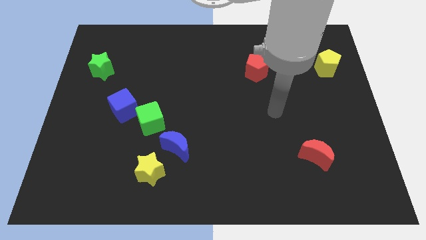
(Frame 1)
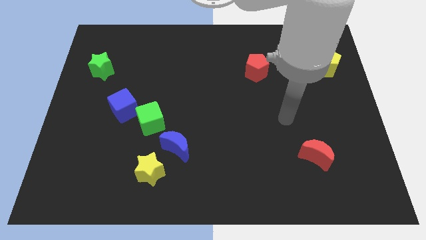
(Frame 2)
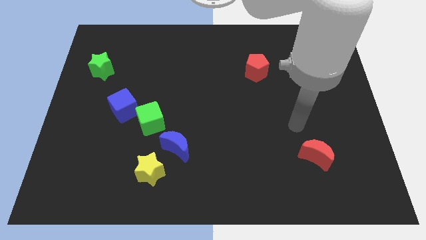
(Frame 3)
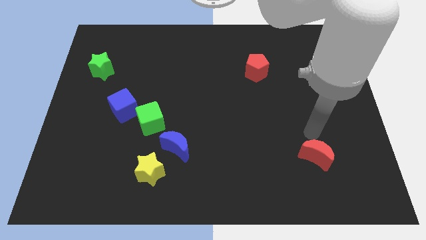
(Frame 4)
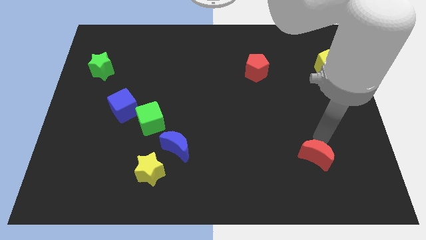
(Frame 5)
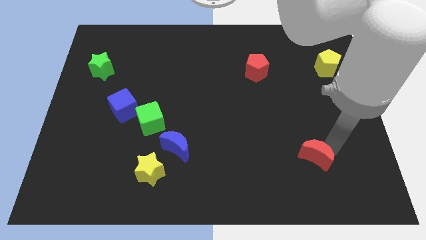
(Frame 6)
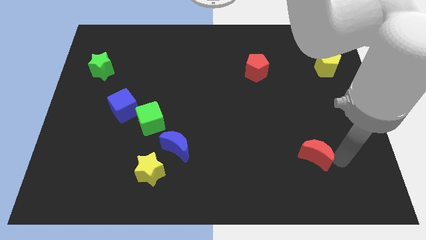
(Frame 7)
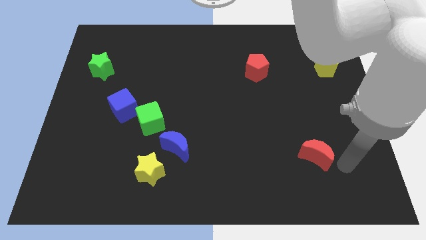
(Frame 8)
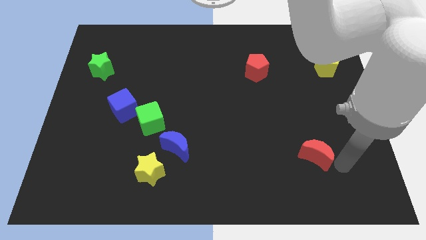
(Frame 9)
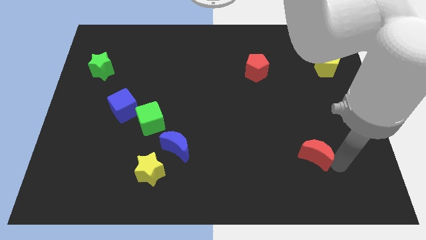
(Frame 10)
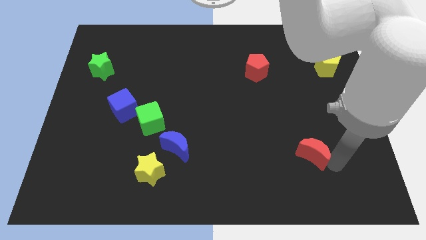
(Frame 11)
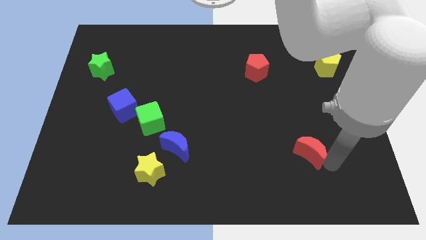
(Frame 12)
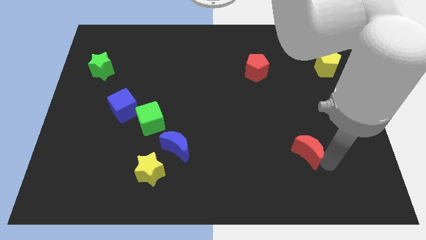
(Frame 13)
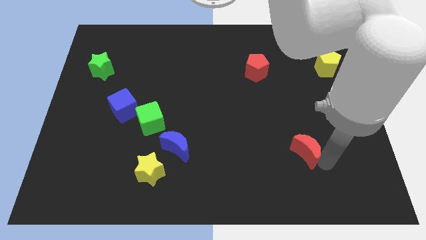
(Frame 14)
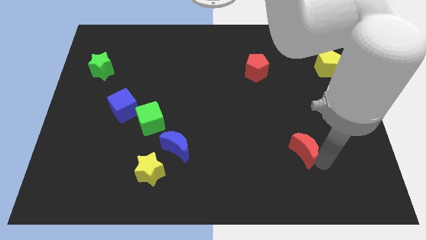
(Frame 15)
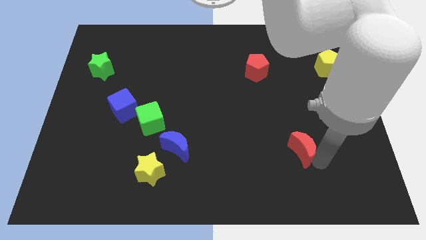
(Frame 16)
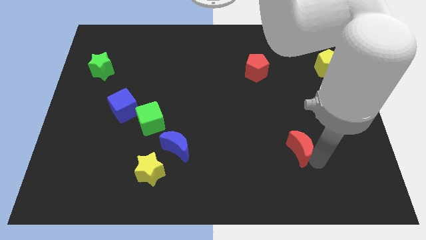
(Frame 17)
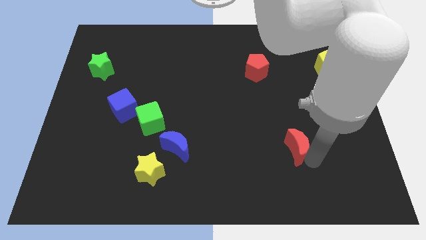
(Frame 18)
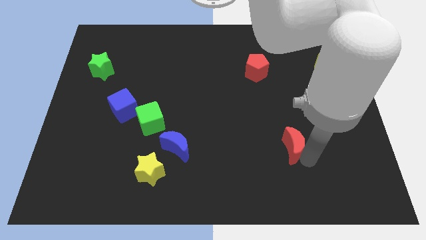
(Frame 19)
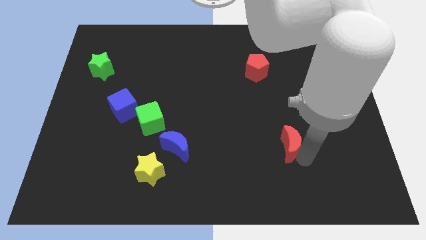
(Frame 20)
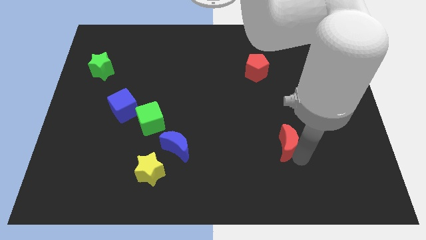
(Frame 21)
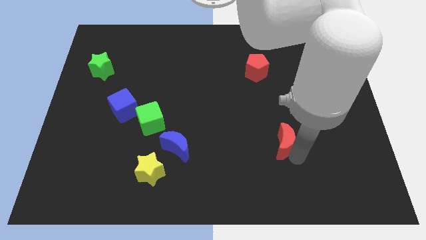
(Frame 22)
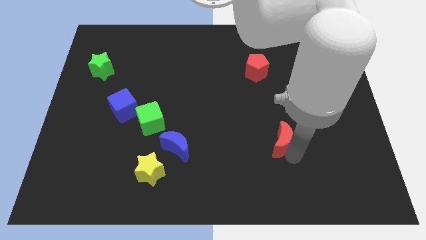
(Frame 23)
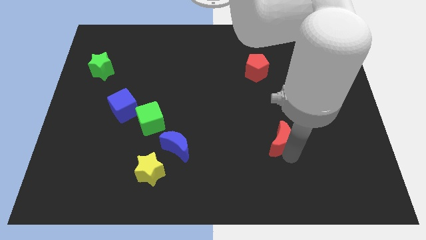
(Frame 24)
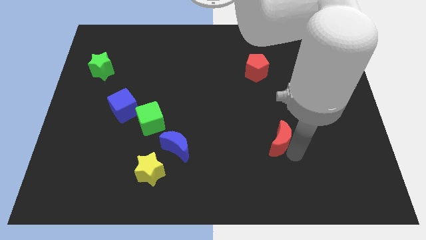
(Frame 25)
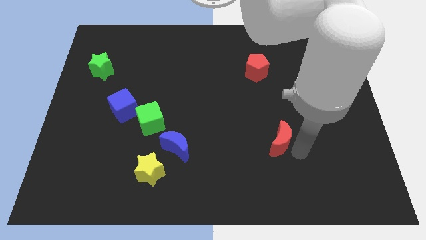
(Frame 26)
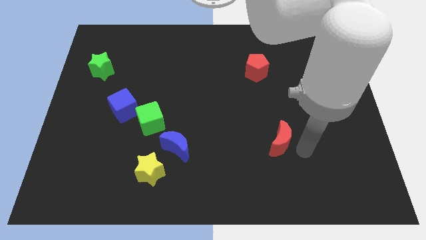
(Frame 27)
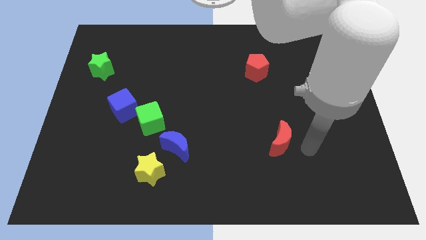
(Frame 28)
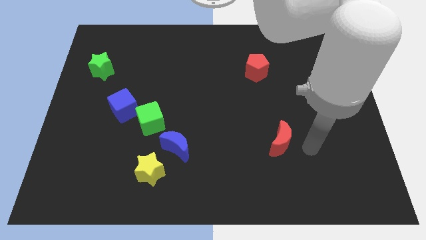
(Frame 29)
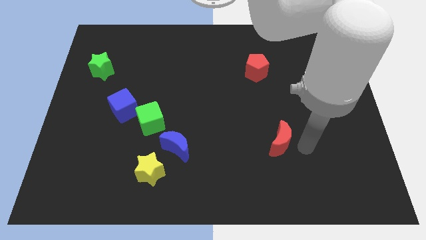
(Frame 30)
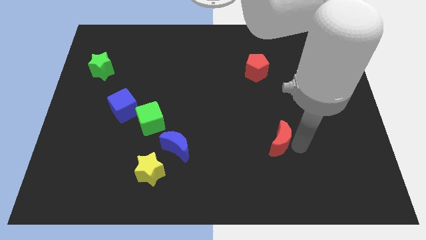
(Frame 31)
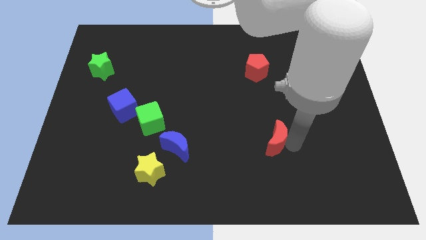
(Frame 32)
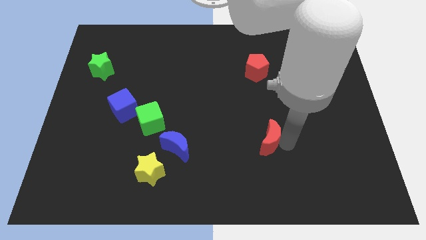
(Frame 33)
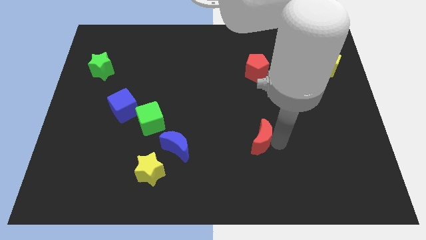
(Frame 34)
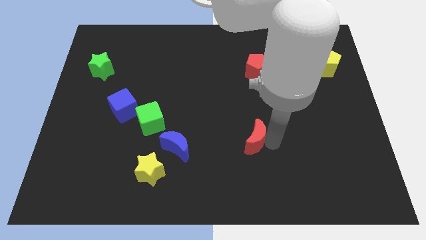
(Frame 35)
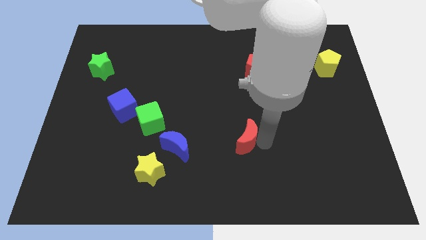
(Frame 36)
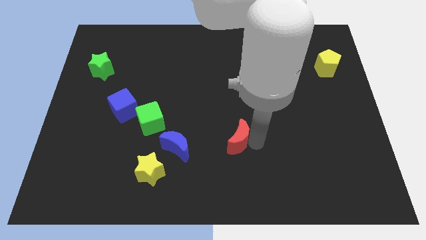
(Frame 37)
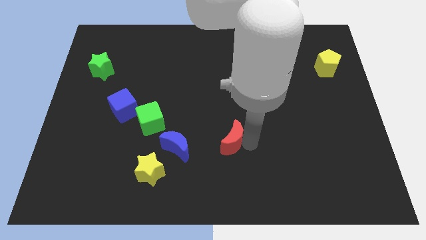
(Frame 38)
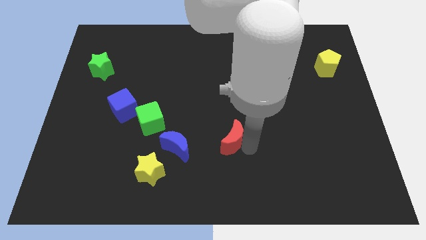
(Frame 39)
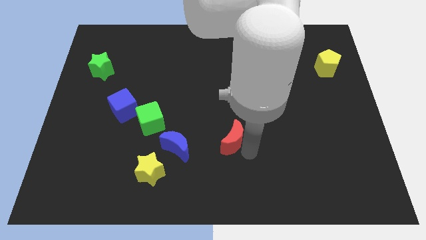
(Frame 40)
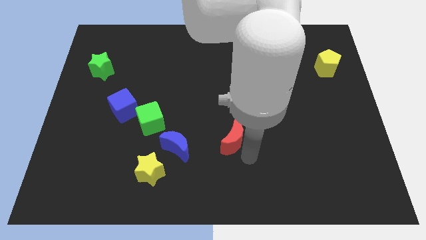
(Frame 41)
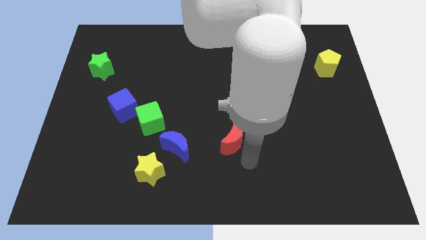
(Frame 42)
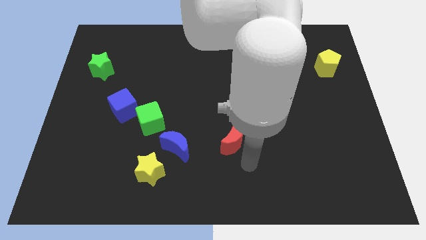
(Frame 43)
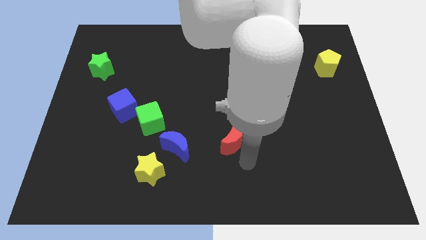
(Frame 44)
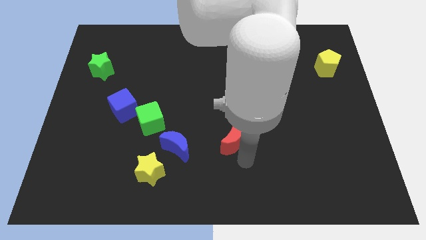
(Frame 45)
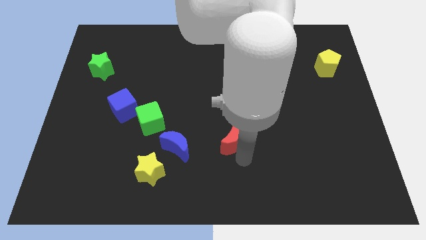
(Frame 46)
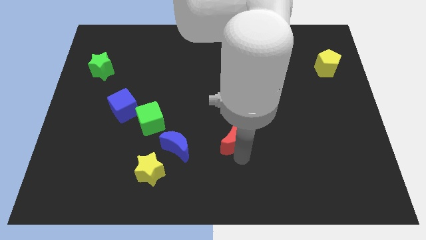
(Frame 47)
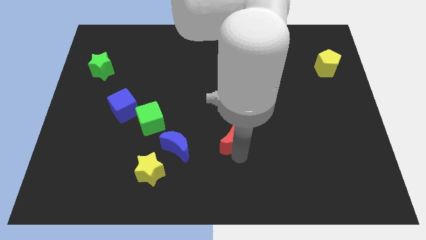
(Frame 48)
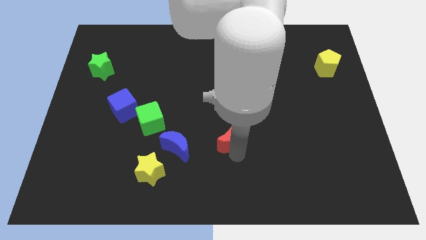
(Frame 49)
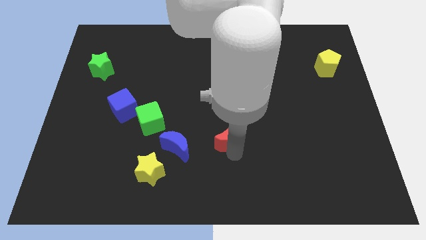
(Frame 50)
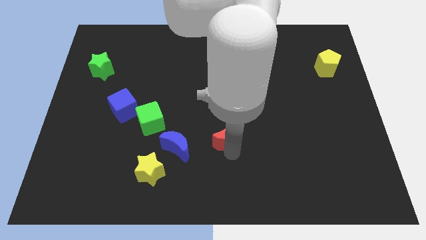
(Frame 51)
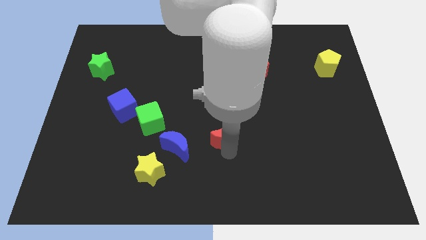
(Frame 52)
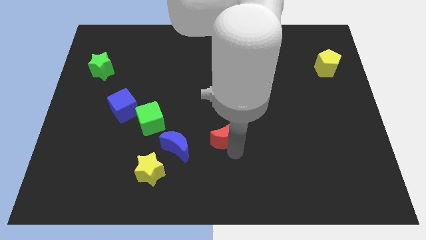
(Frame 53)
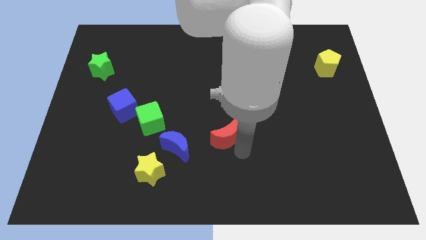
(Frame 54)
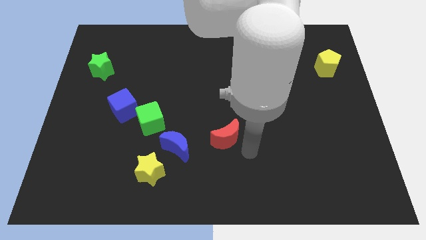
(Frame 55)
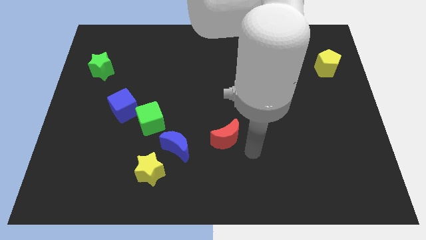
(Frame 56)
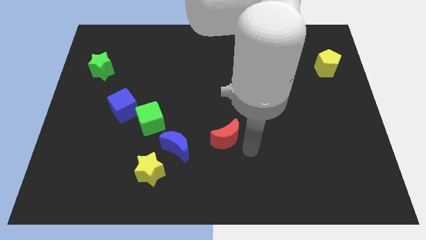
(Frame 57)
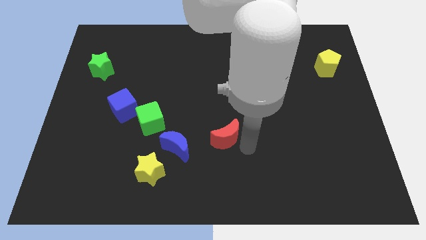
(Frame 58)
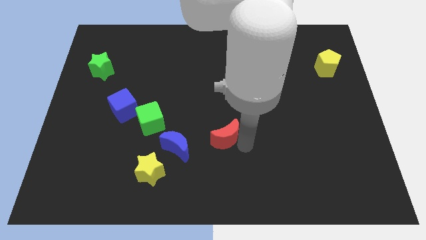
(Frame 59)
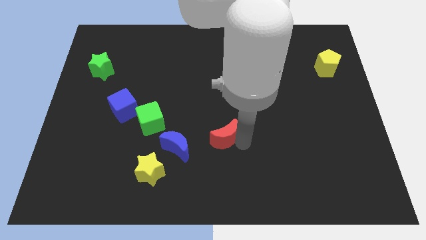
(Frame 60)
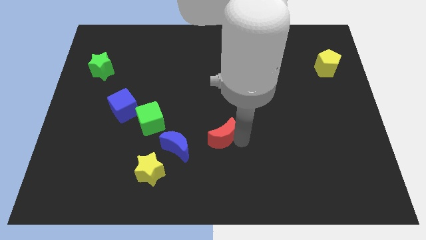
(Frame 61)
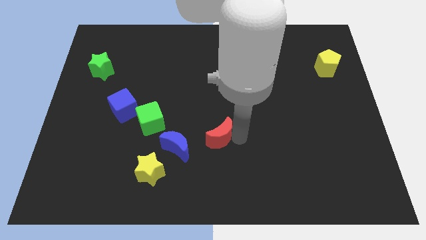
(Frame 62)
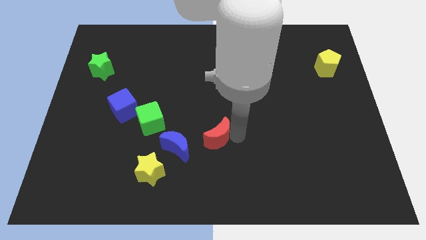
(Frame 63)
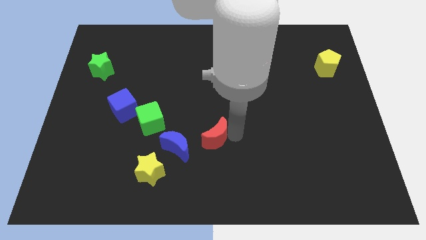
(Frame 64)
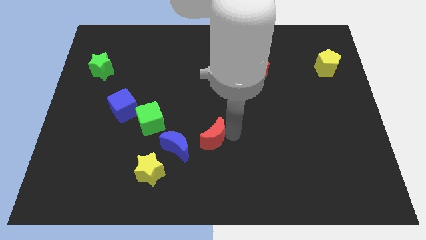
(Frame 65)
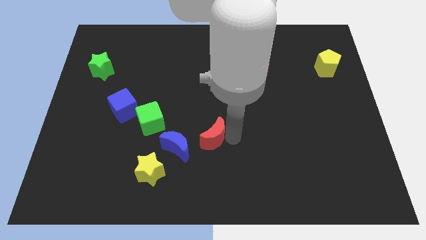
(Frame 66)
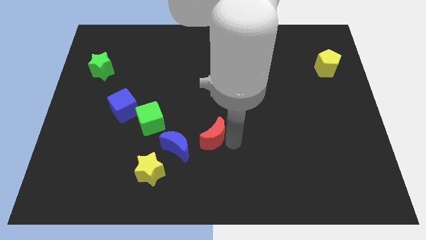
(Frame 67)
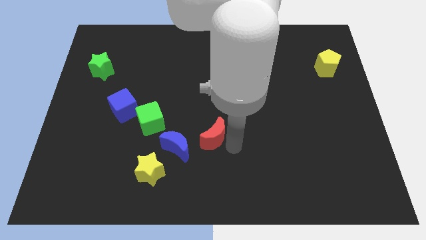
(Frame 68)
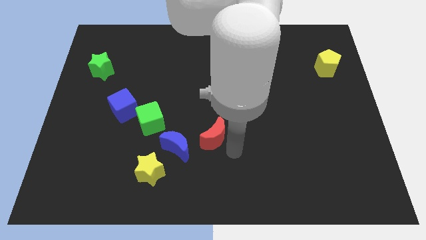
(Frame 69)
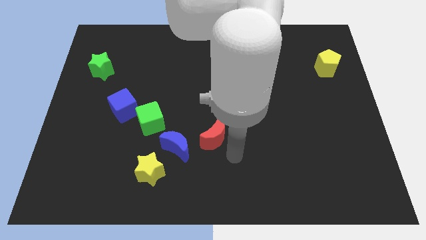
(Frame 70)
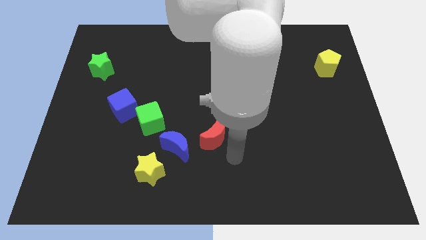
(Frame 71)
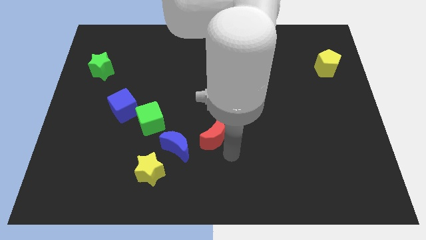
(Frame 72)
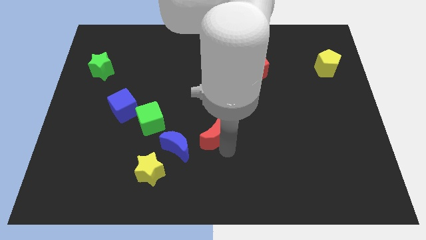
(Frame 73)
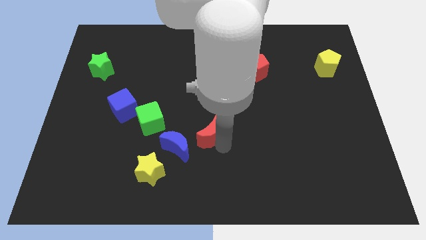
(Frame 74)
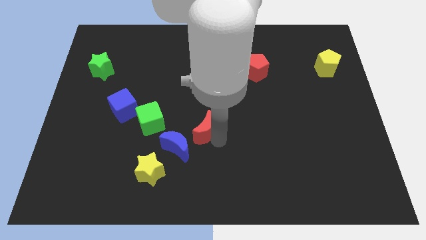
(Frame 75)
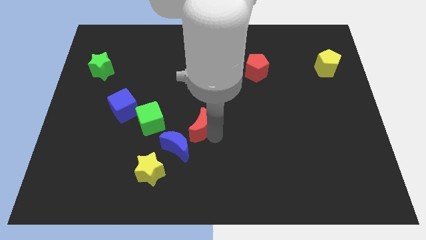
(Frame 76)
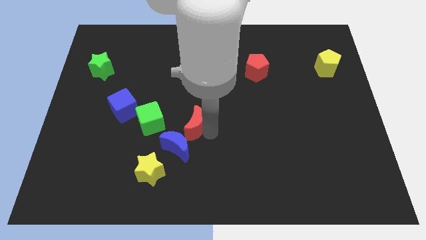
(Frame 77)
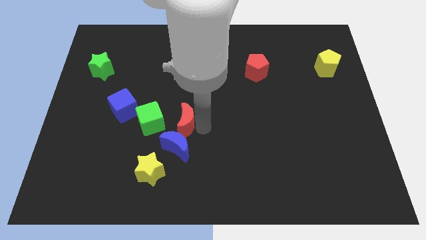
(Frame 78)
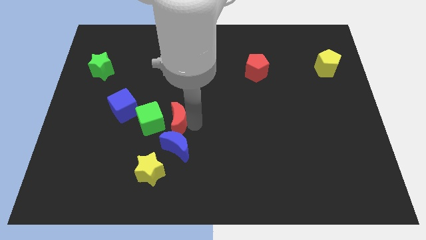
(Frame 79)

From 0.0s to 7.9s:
push the red moon close to the green cube
